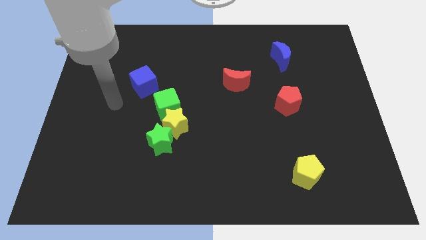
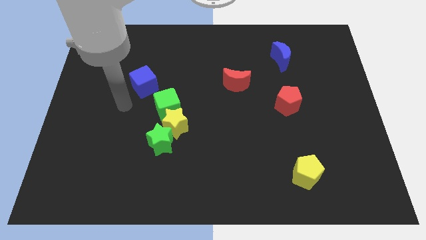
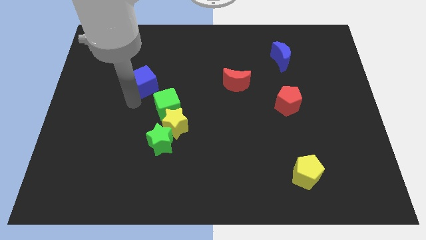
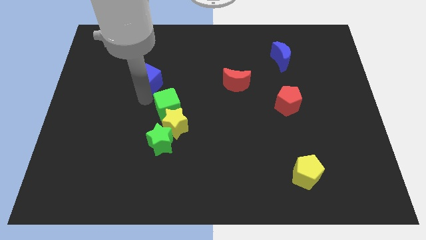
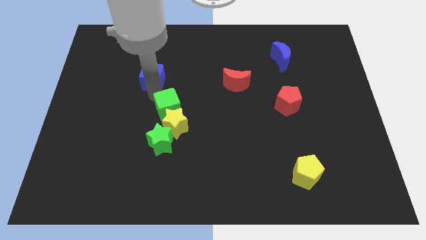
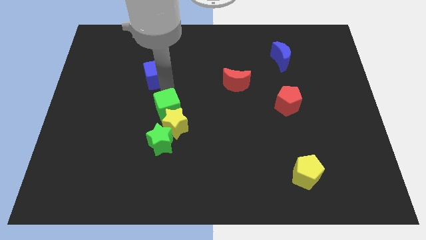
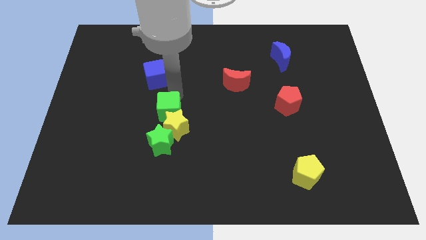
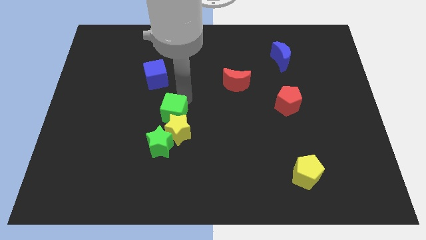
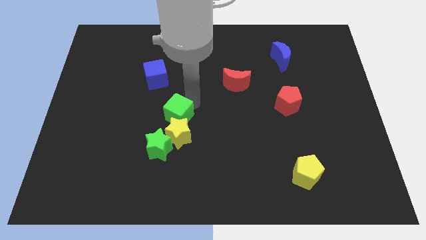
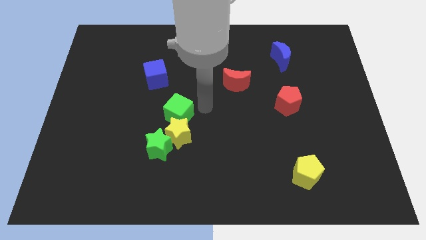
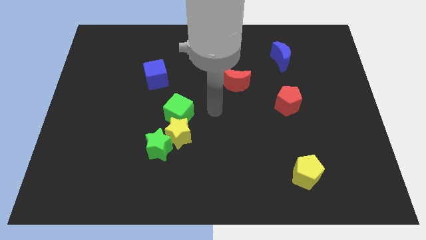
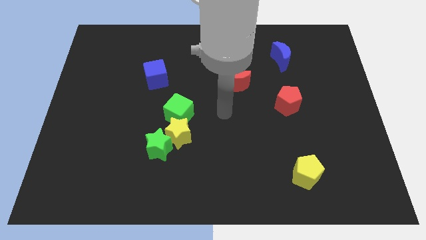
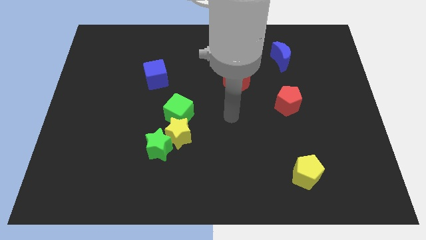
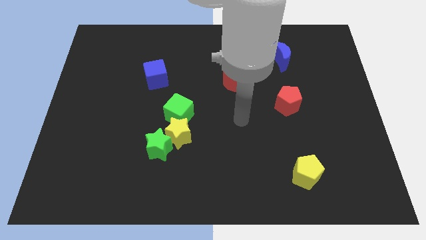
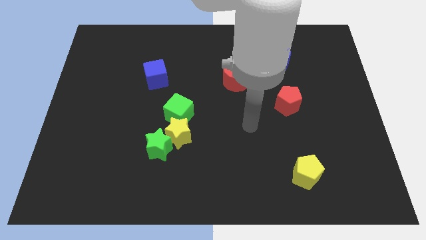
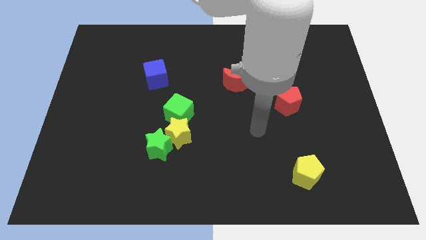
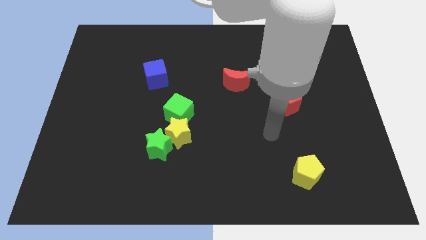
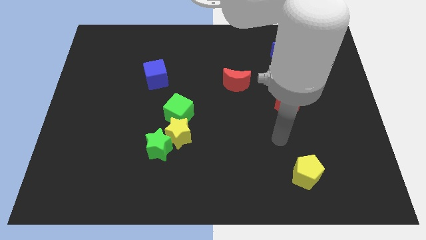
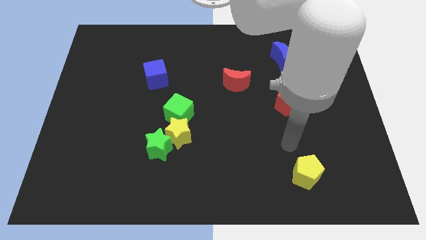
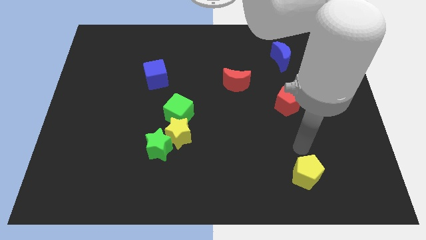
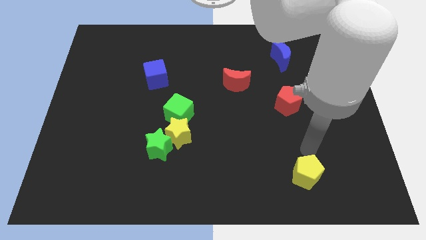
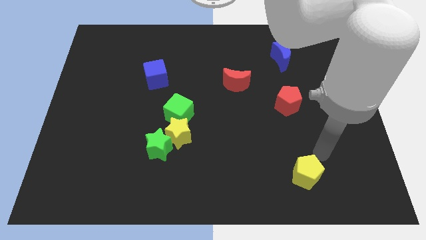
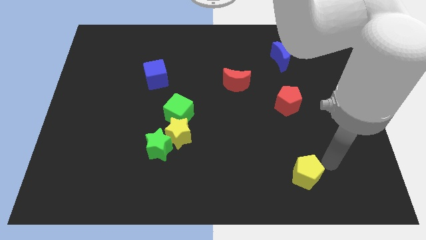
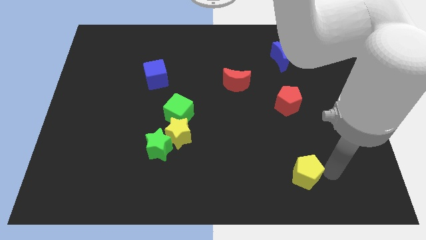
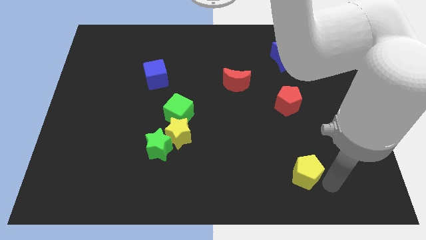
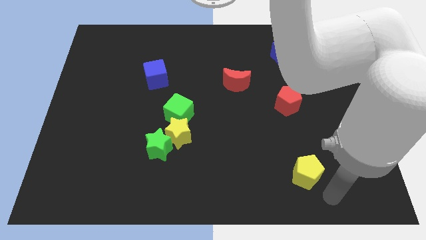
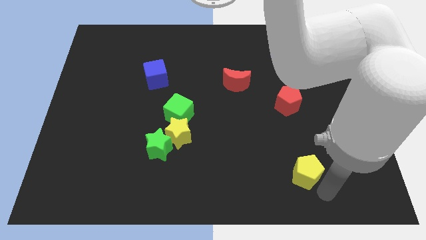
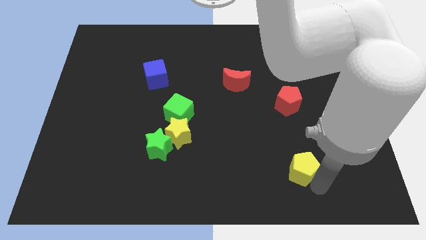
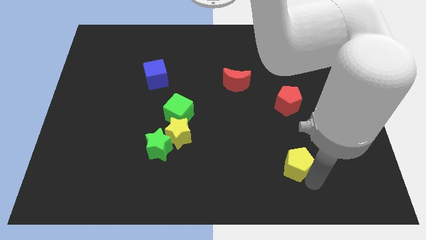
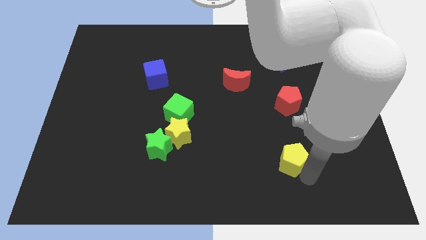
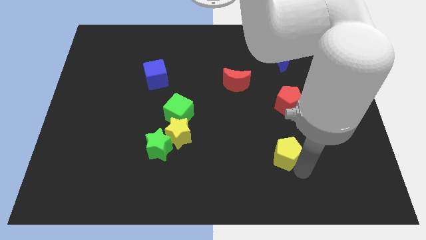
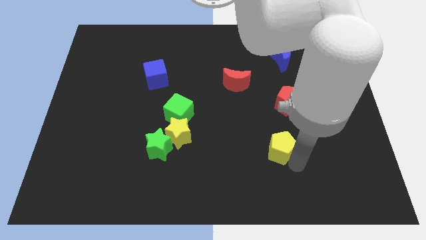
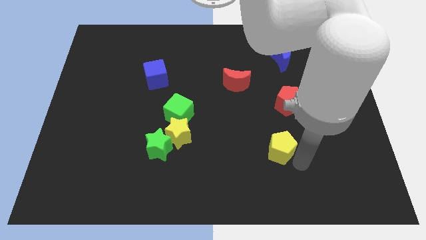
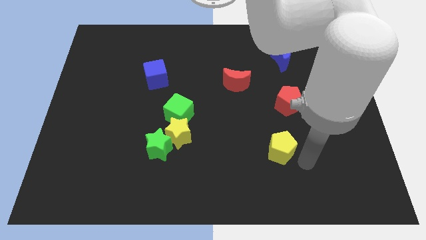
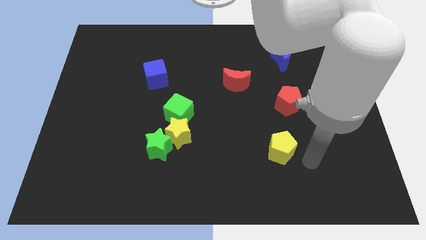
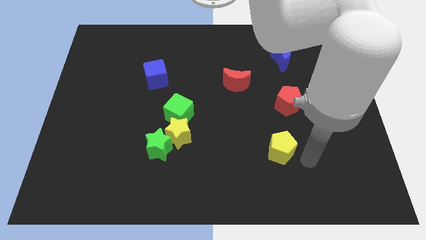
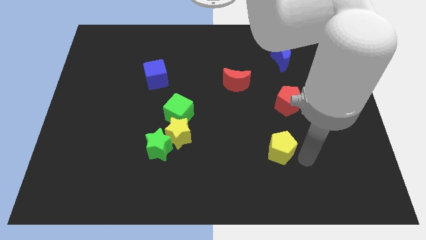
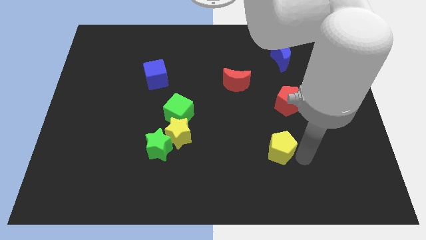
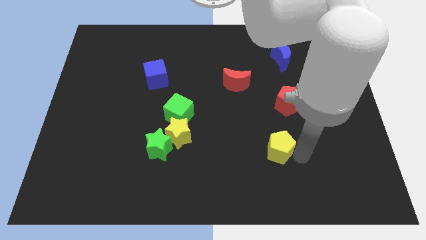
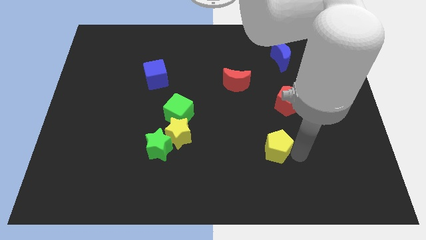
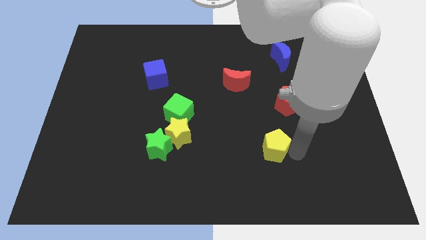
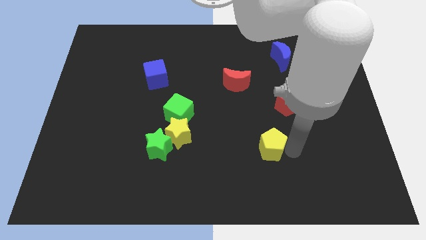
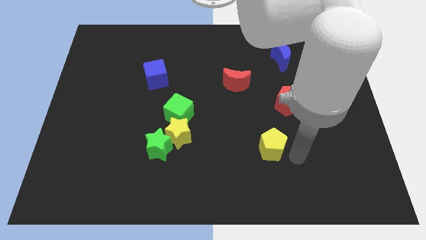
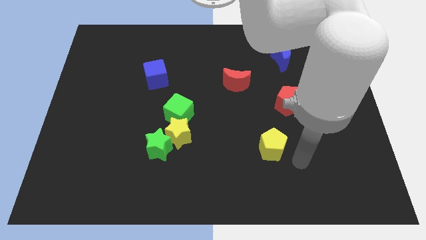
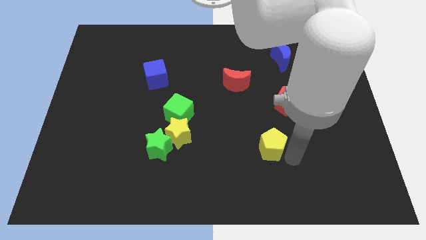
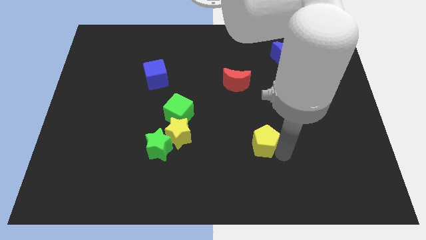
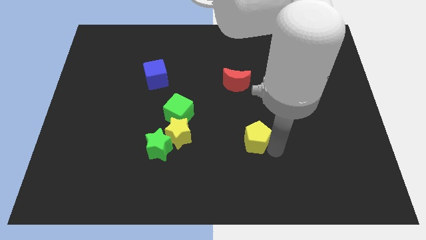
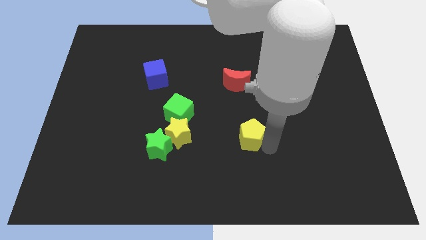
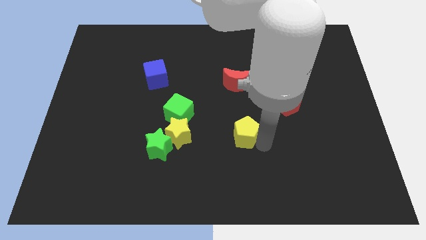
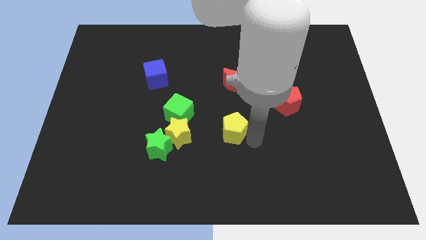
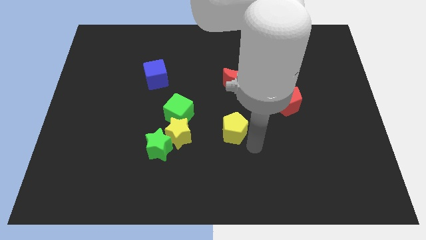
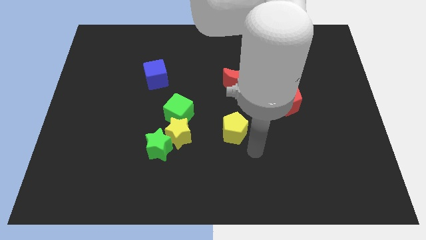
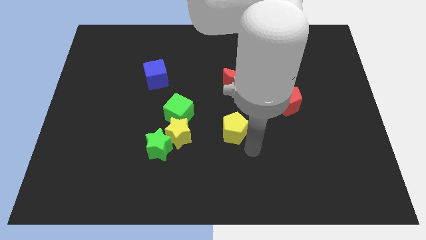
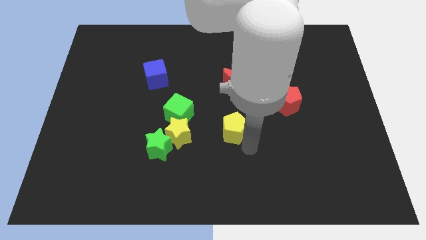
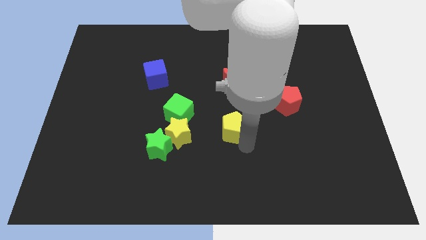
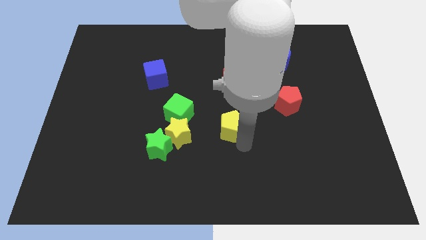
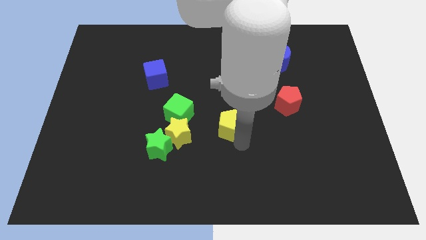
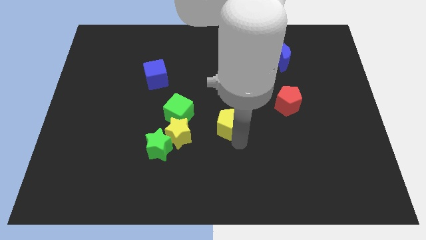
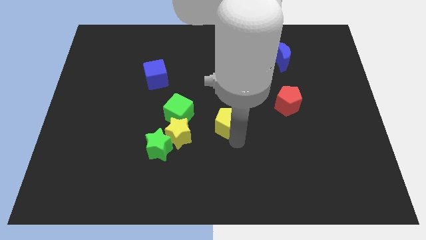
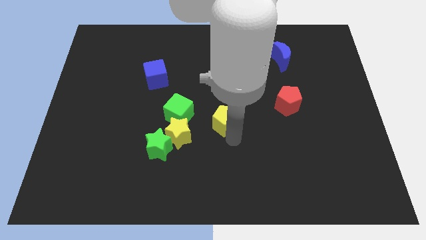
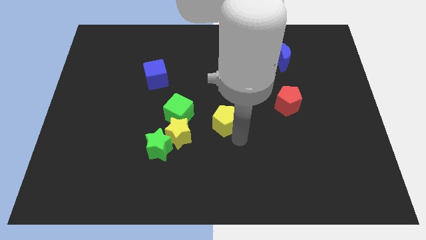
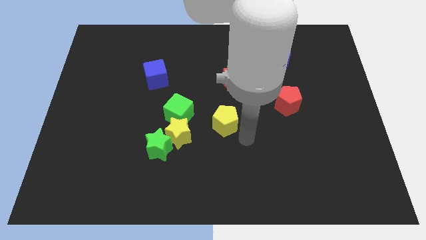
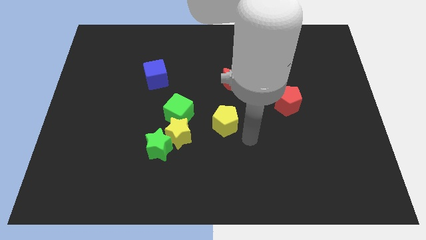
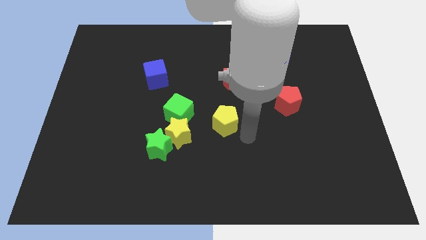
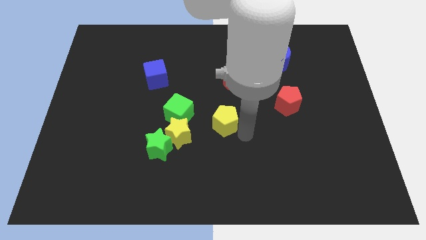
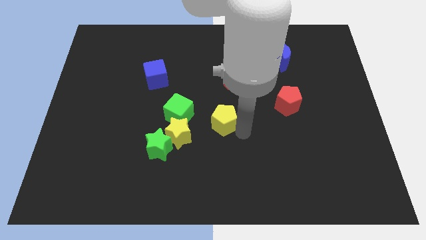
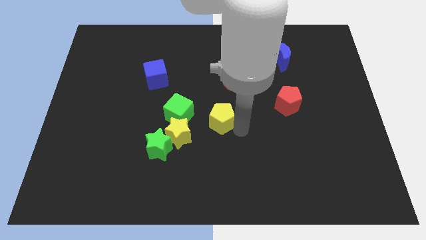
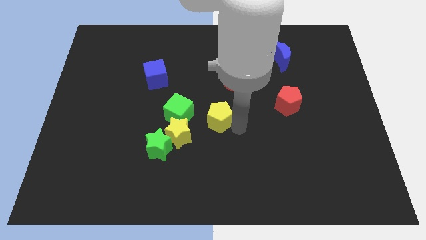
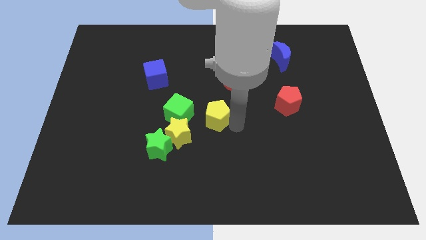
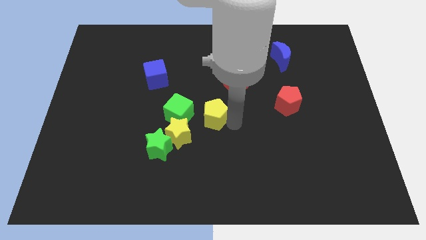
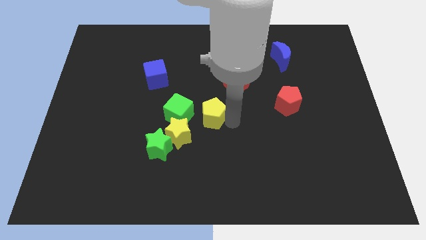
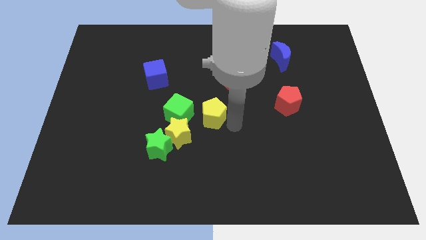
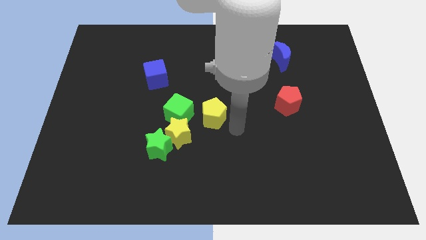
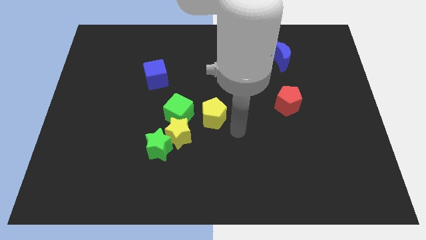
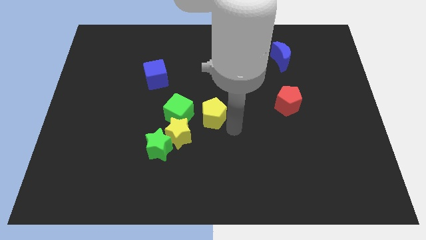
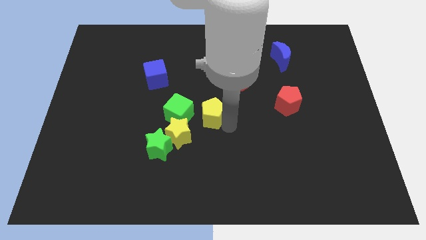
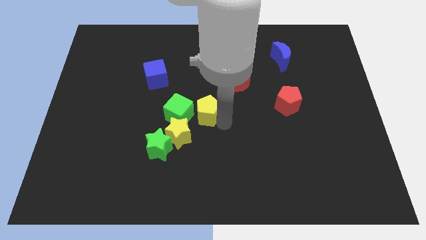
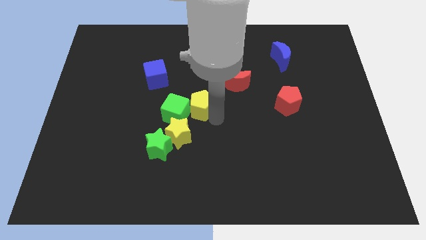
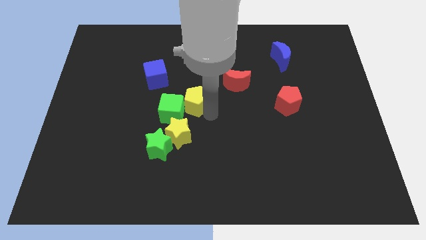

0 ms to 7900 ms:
push the yellow pentagon to the top side of the yellow star
